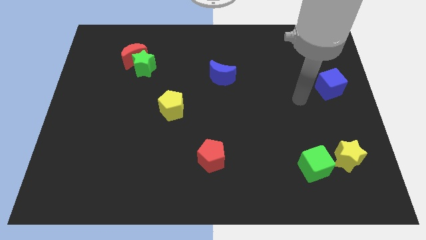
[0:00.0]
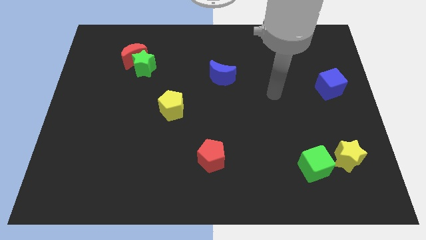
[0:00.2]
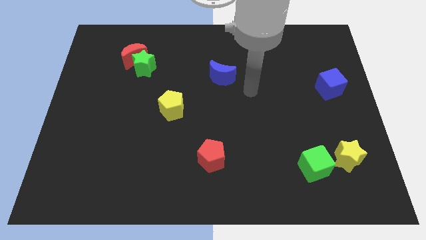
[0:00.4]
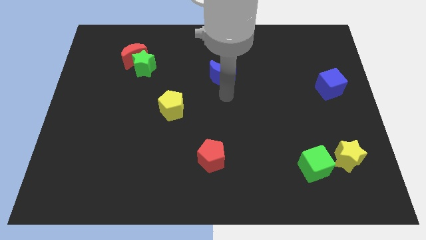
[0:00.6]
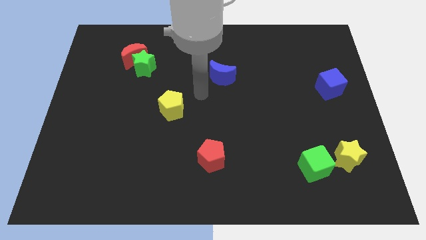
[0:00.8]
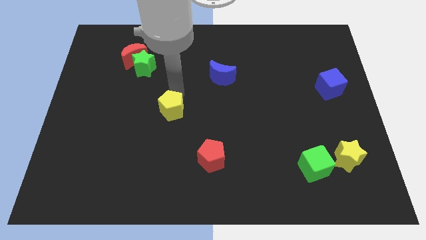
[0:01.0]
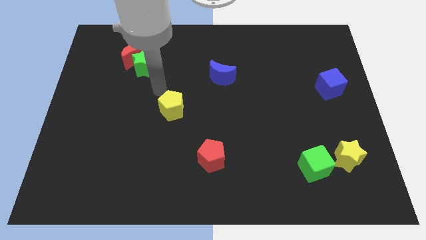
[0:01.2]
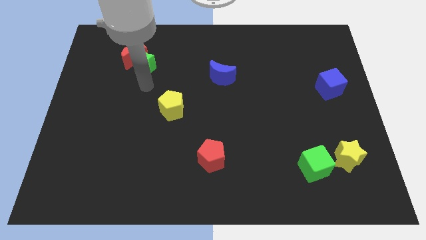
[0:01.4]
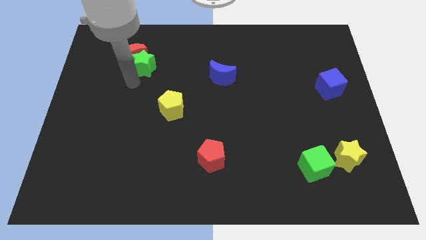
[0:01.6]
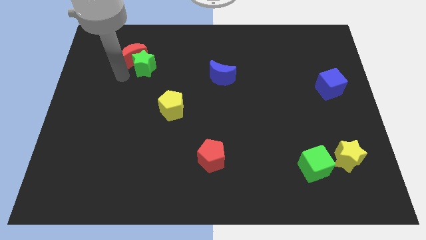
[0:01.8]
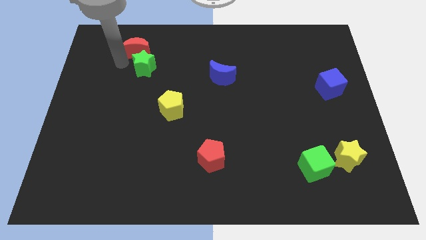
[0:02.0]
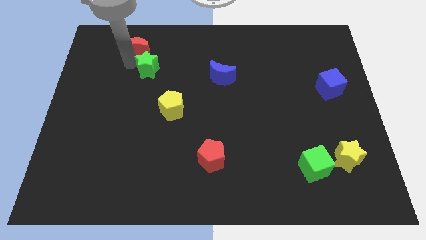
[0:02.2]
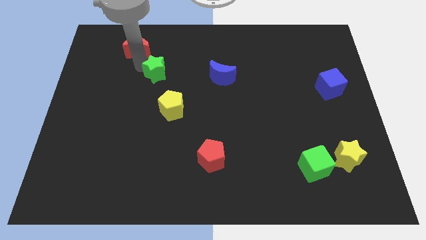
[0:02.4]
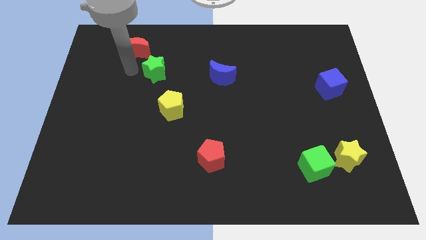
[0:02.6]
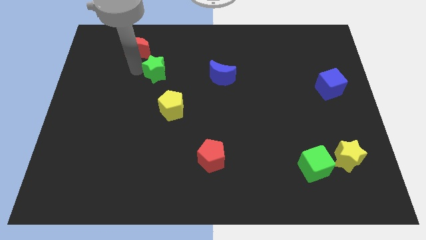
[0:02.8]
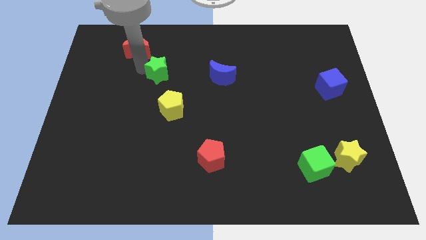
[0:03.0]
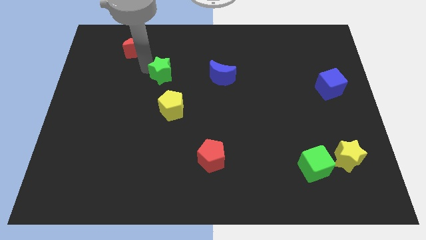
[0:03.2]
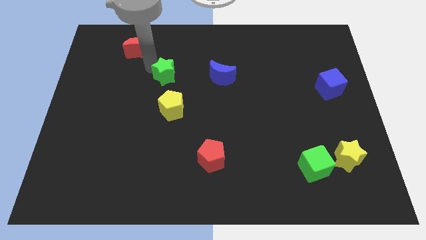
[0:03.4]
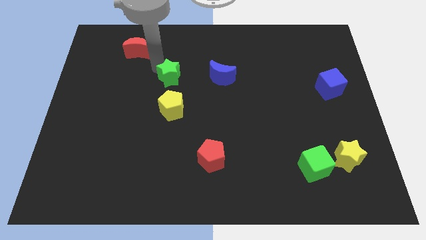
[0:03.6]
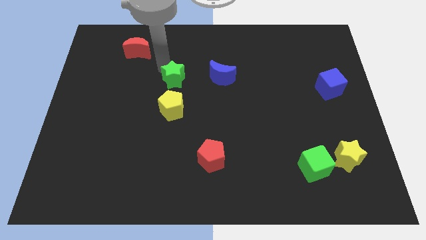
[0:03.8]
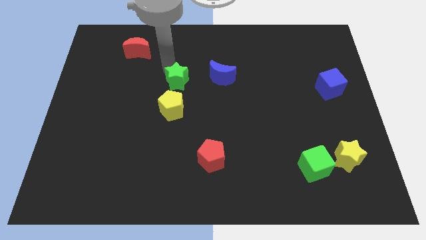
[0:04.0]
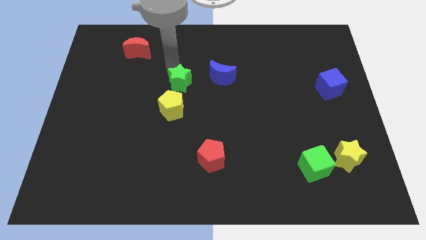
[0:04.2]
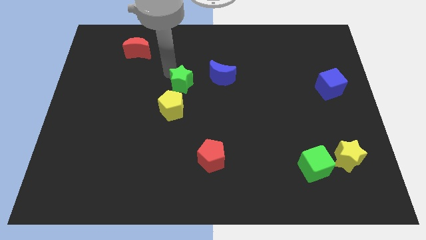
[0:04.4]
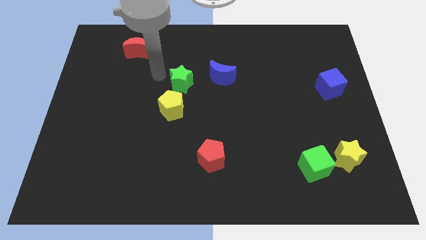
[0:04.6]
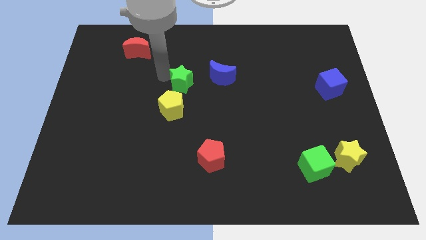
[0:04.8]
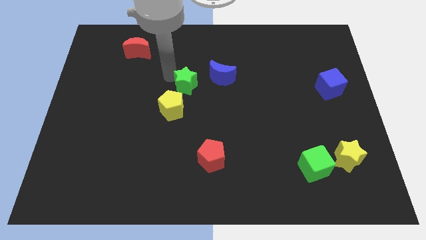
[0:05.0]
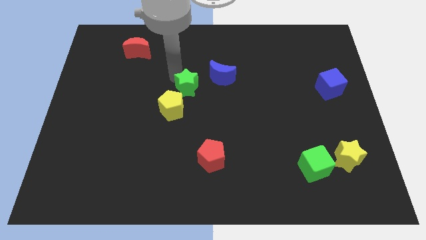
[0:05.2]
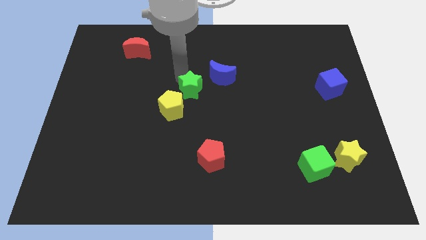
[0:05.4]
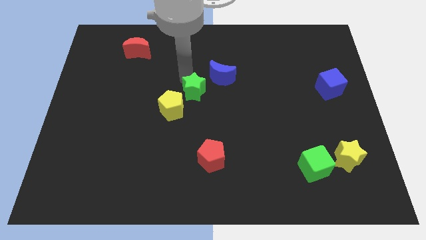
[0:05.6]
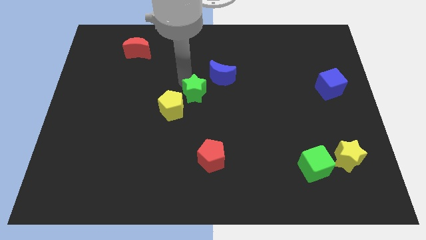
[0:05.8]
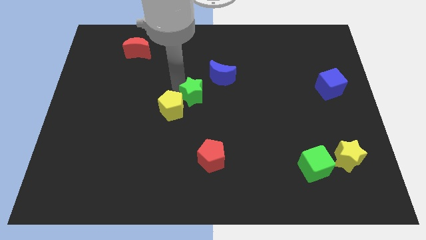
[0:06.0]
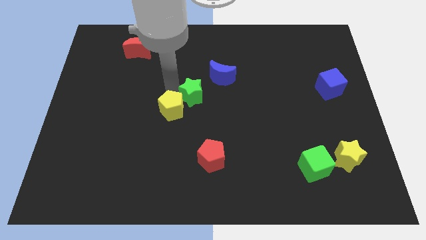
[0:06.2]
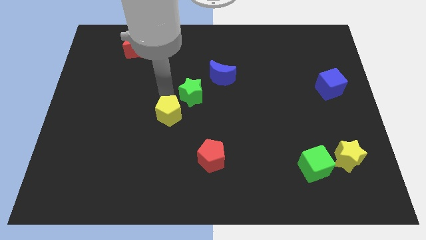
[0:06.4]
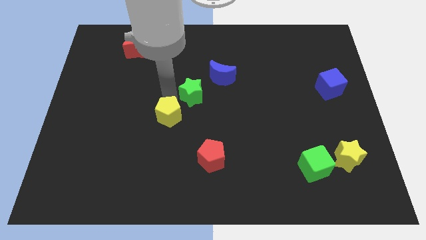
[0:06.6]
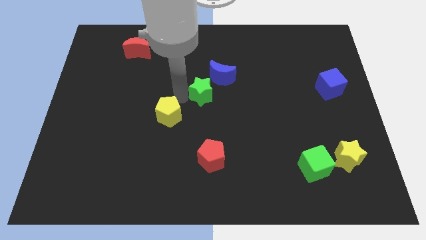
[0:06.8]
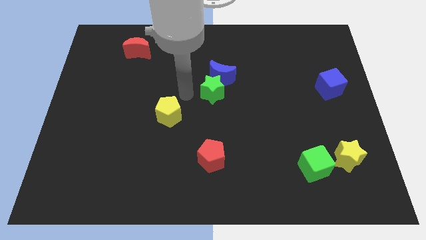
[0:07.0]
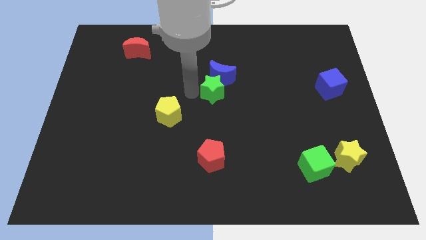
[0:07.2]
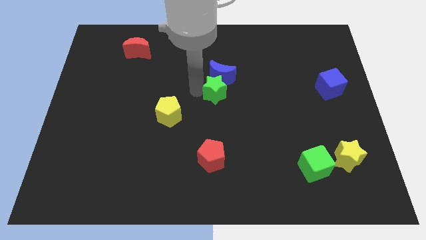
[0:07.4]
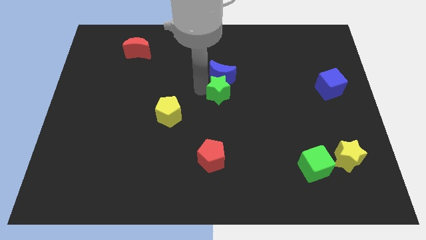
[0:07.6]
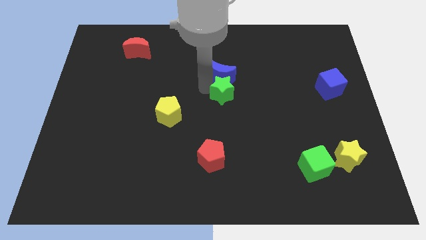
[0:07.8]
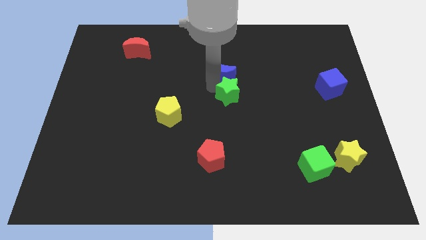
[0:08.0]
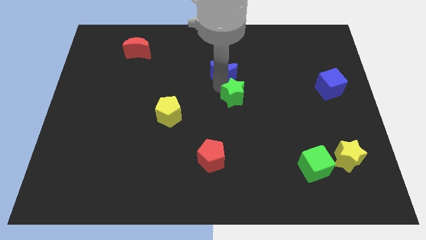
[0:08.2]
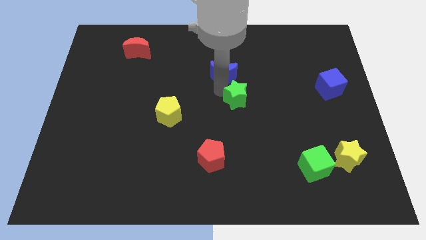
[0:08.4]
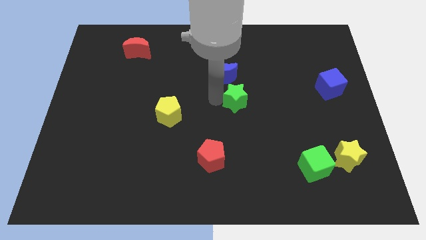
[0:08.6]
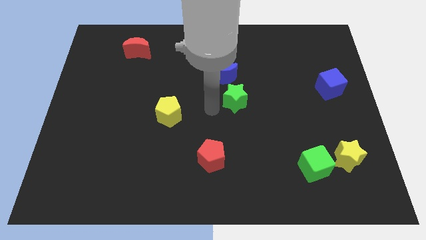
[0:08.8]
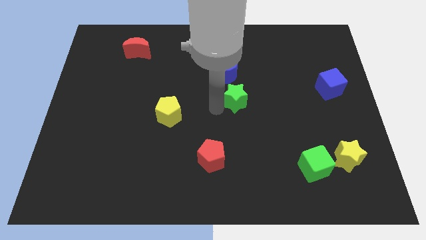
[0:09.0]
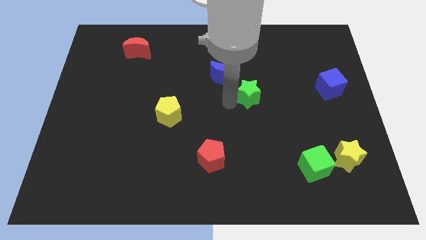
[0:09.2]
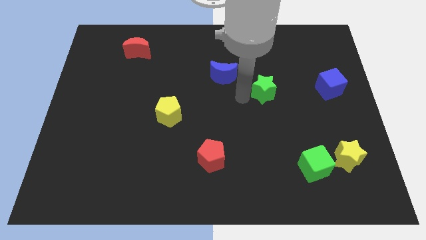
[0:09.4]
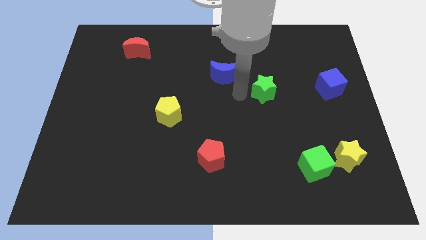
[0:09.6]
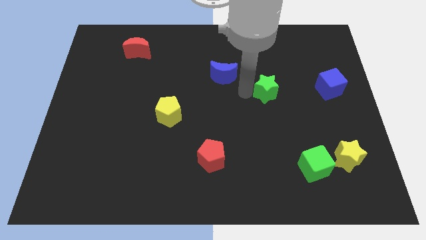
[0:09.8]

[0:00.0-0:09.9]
put the green star just left of the blue cube

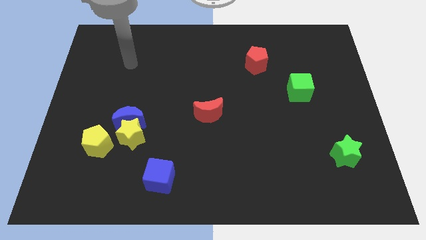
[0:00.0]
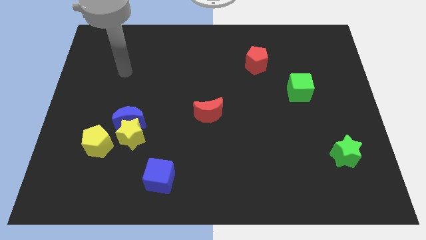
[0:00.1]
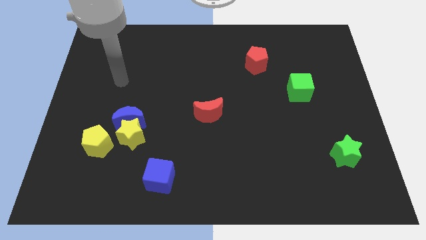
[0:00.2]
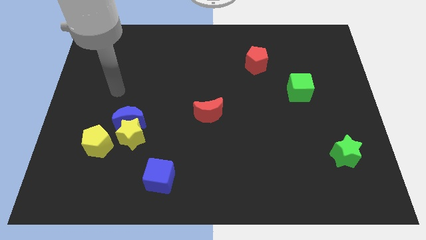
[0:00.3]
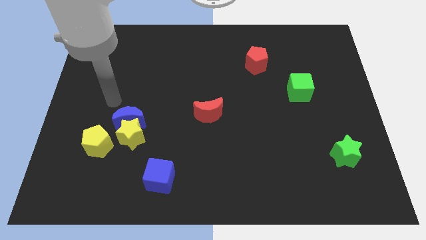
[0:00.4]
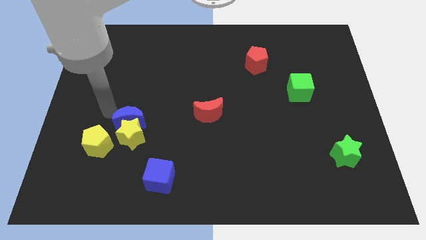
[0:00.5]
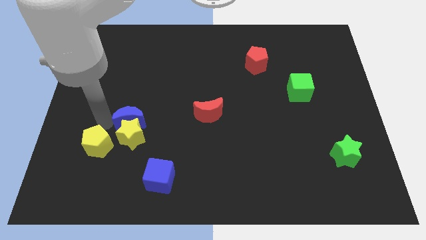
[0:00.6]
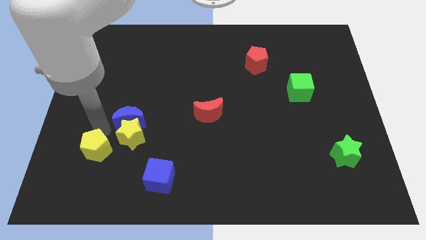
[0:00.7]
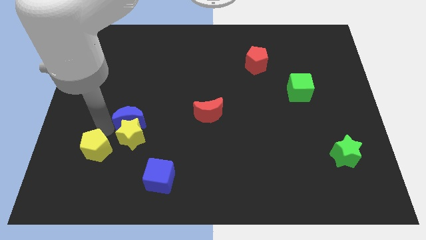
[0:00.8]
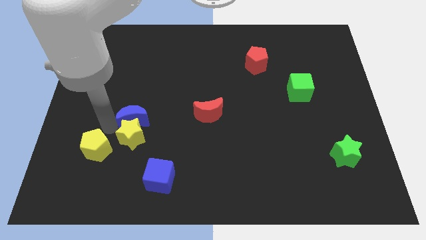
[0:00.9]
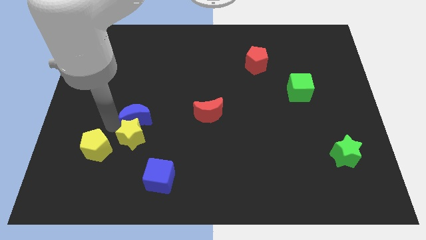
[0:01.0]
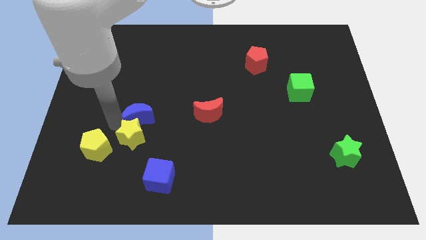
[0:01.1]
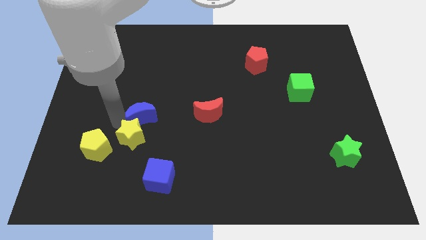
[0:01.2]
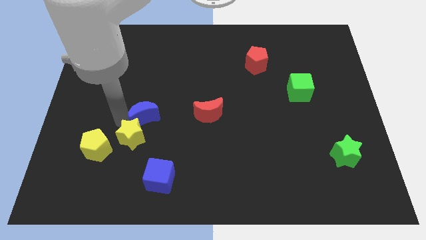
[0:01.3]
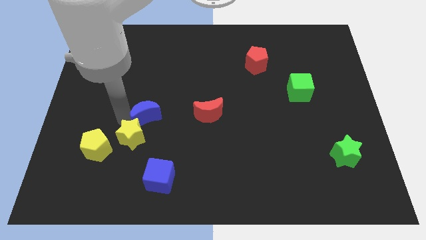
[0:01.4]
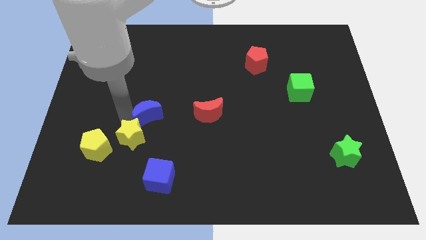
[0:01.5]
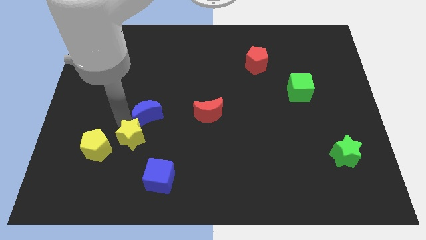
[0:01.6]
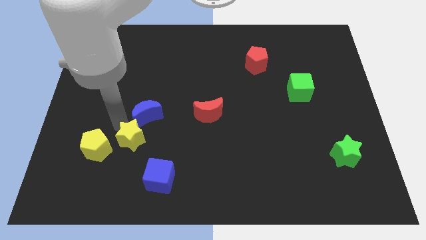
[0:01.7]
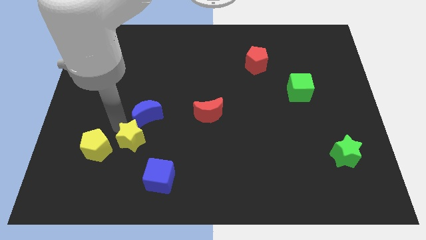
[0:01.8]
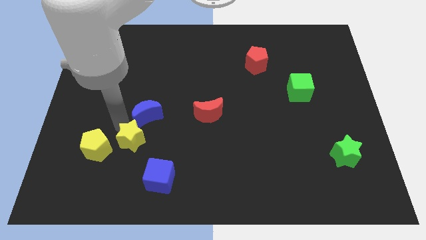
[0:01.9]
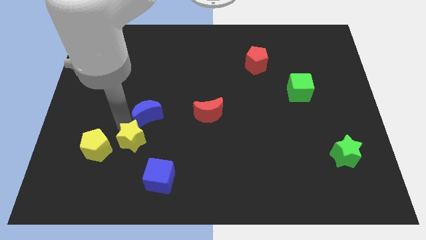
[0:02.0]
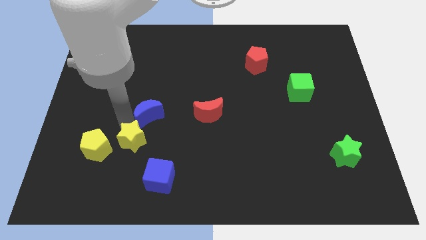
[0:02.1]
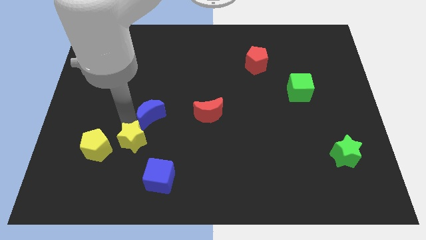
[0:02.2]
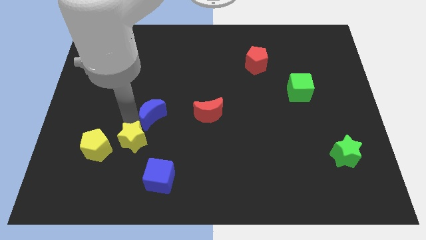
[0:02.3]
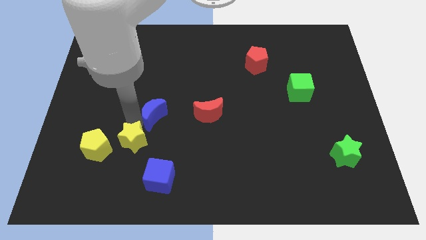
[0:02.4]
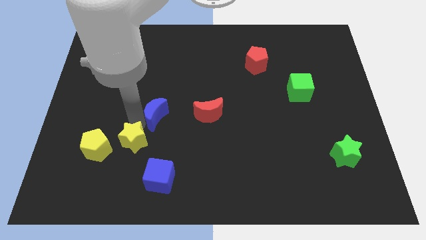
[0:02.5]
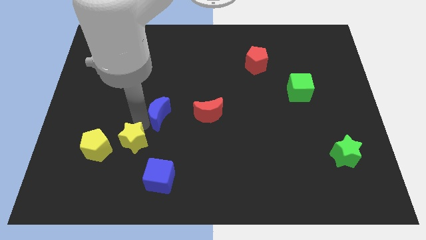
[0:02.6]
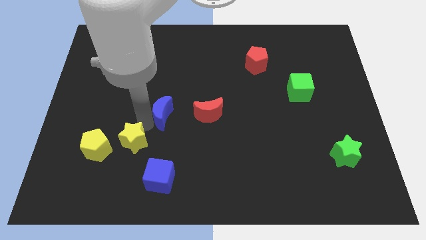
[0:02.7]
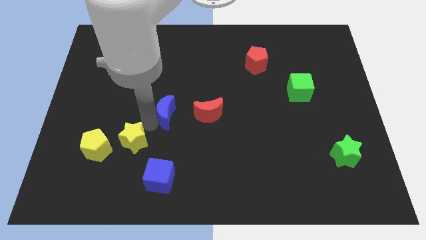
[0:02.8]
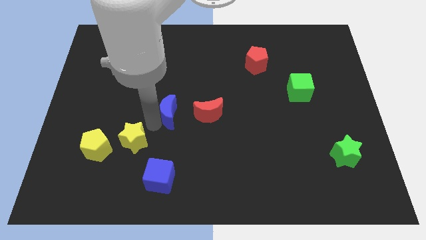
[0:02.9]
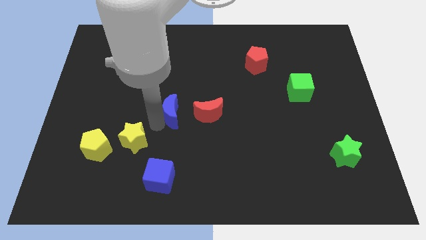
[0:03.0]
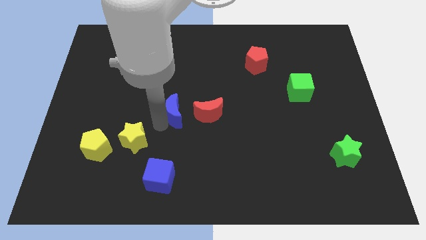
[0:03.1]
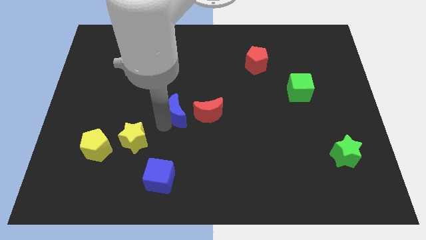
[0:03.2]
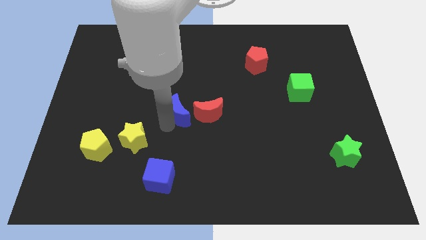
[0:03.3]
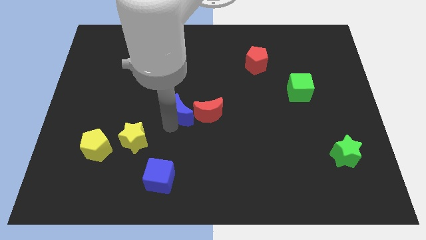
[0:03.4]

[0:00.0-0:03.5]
slide the blue moon diagonally up and to the left of the red moon
